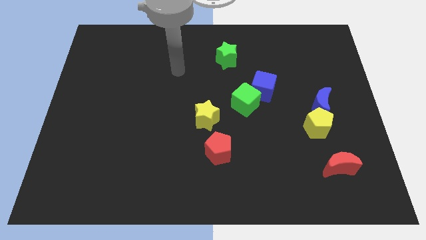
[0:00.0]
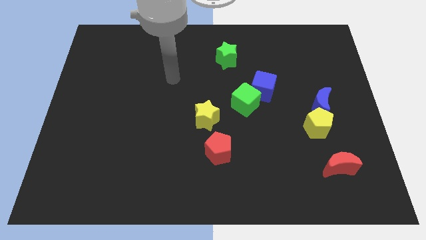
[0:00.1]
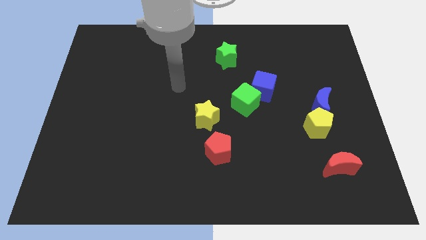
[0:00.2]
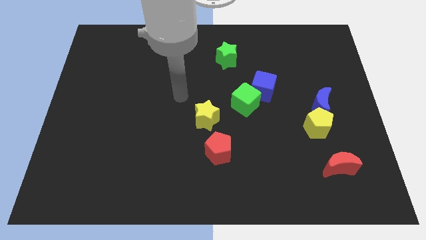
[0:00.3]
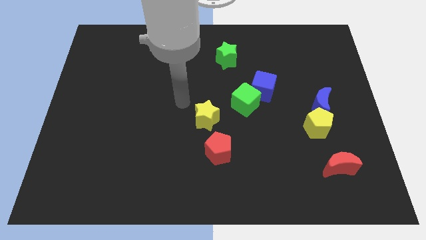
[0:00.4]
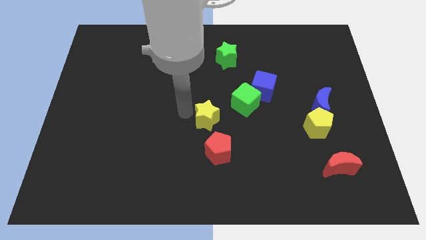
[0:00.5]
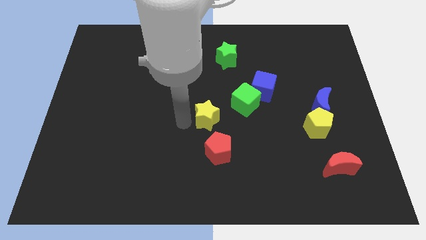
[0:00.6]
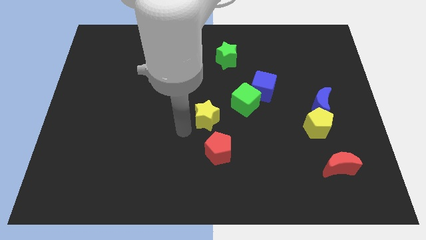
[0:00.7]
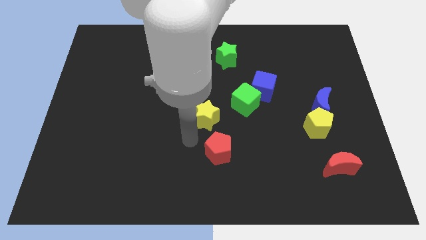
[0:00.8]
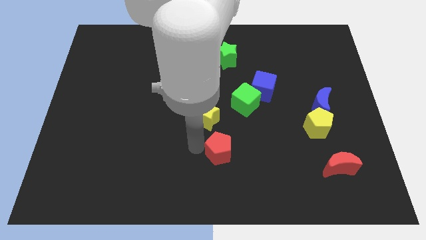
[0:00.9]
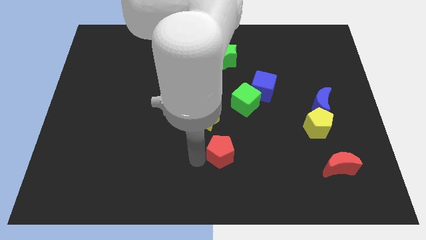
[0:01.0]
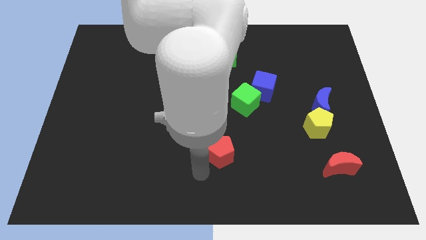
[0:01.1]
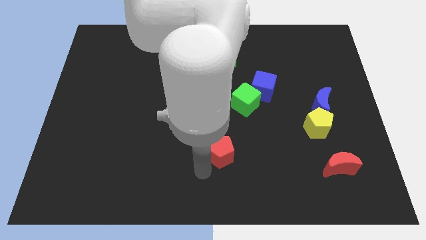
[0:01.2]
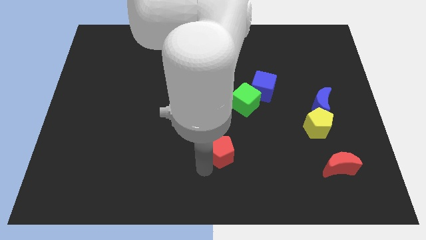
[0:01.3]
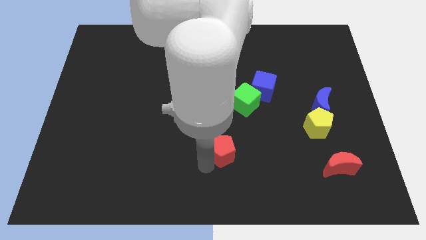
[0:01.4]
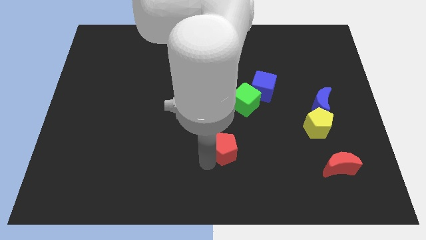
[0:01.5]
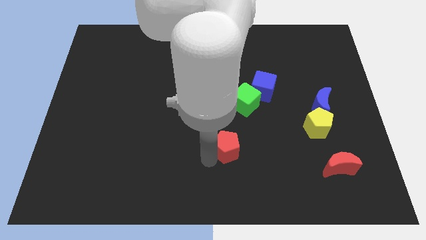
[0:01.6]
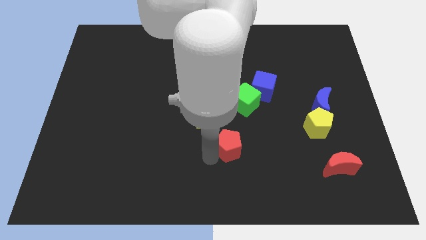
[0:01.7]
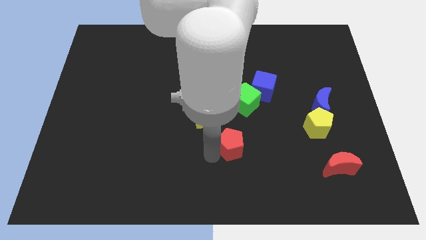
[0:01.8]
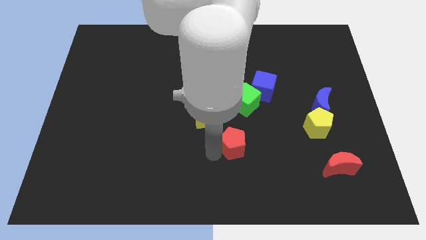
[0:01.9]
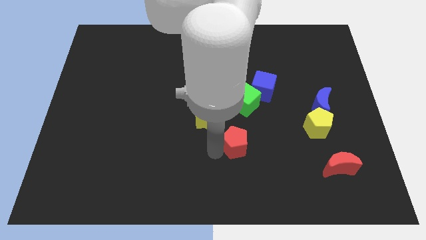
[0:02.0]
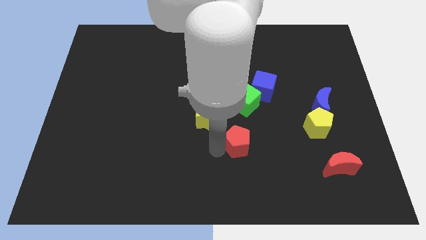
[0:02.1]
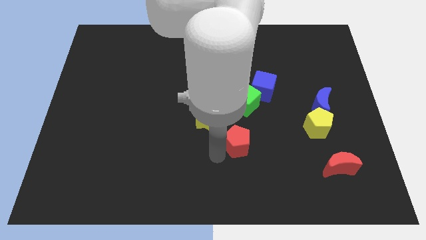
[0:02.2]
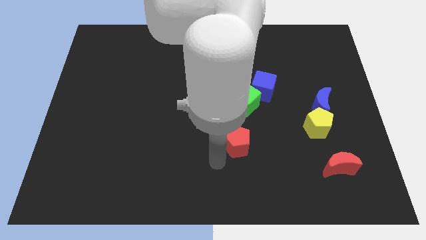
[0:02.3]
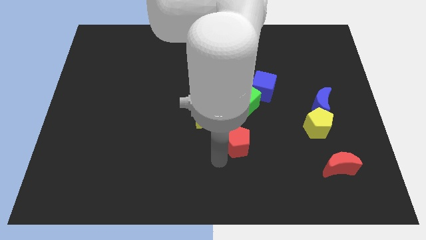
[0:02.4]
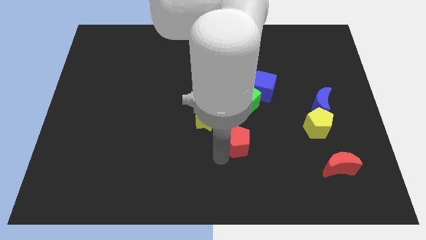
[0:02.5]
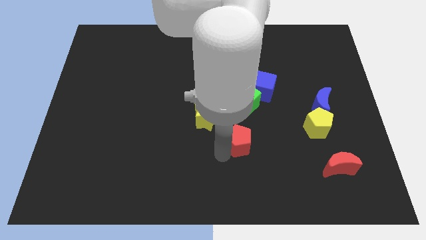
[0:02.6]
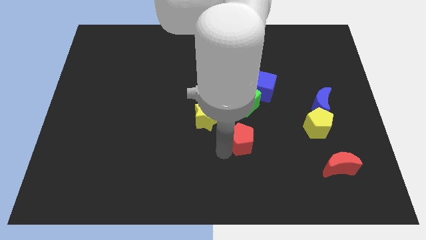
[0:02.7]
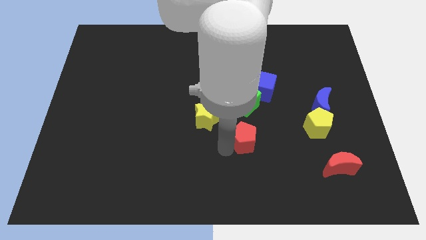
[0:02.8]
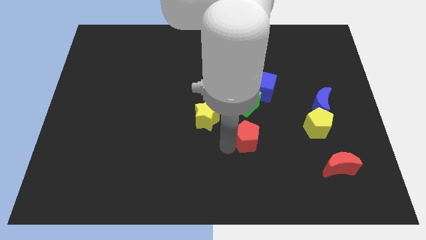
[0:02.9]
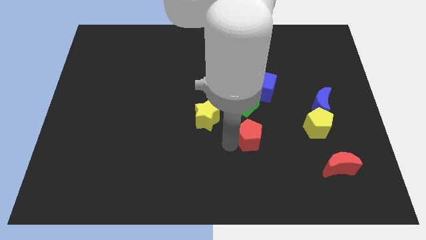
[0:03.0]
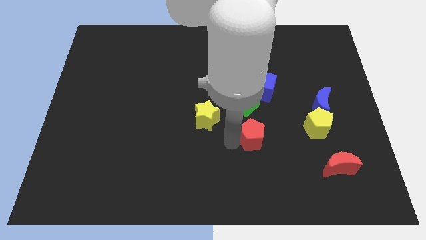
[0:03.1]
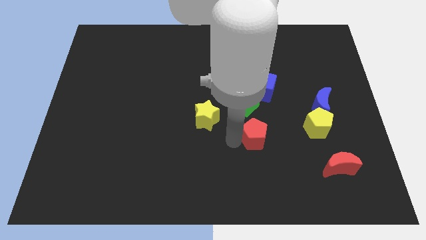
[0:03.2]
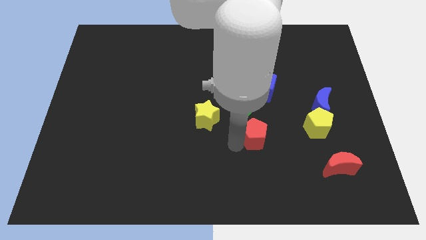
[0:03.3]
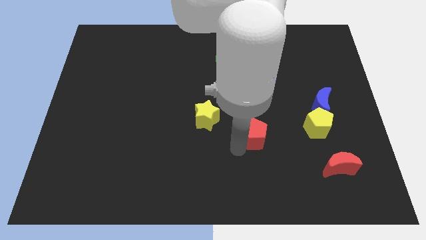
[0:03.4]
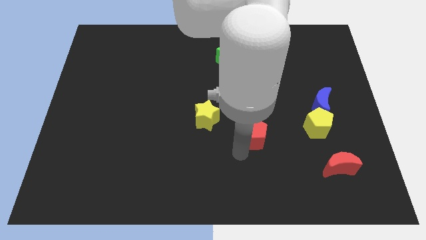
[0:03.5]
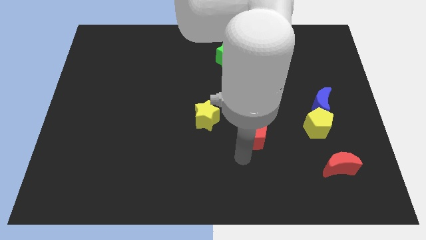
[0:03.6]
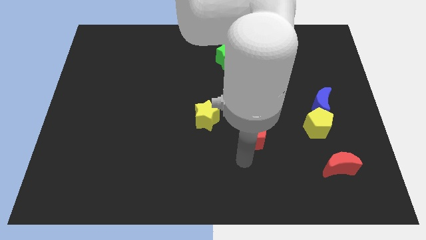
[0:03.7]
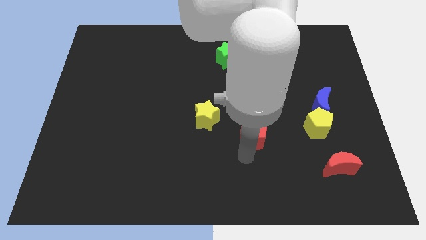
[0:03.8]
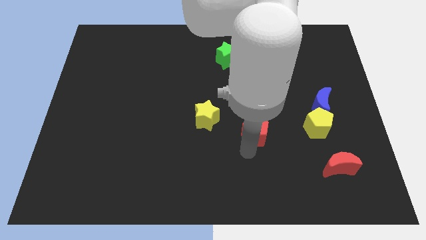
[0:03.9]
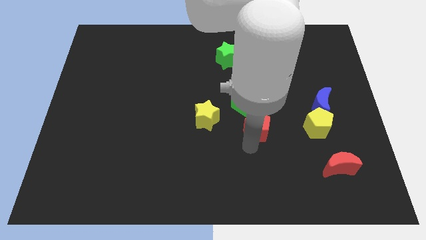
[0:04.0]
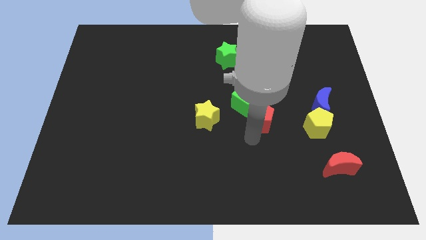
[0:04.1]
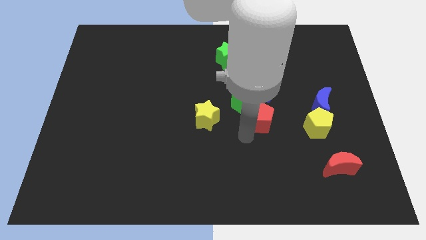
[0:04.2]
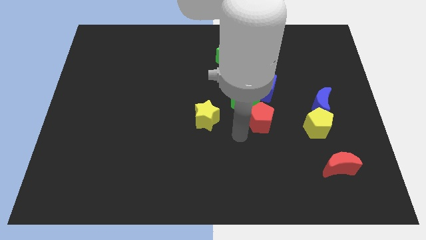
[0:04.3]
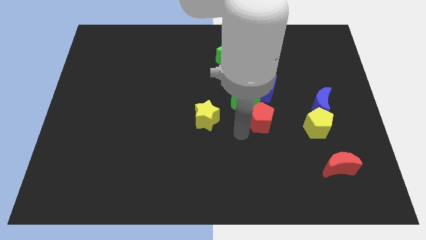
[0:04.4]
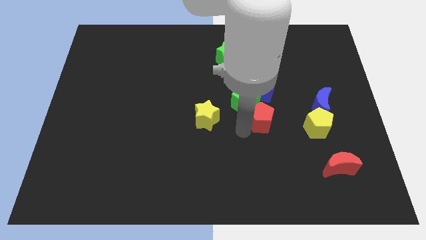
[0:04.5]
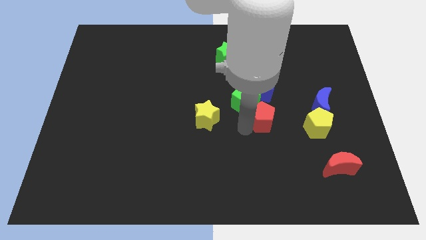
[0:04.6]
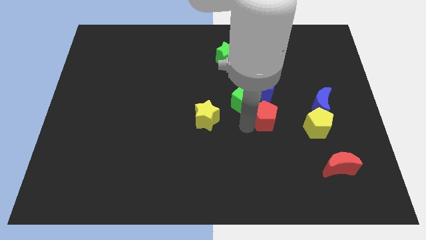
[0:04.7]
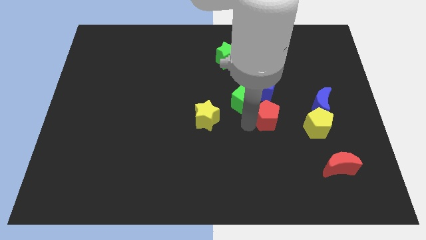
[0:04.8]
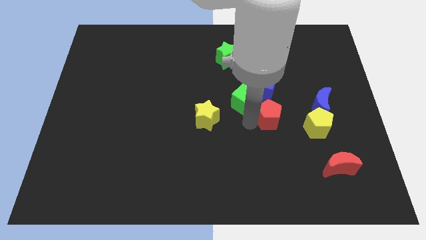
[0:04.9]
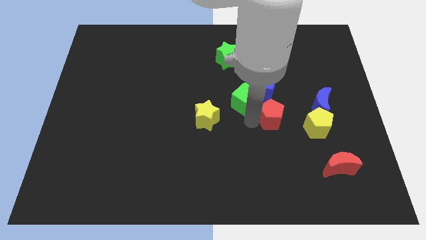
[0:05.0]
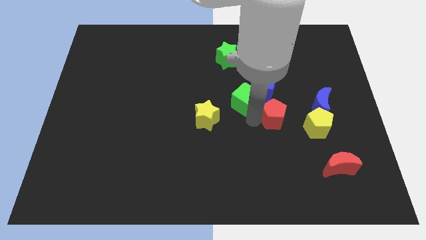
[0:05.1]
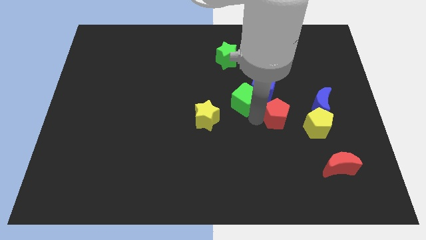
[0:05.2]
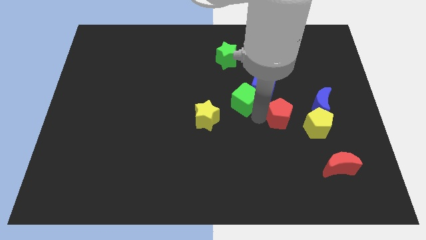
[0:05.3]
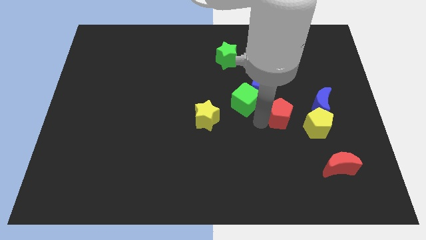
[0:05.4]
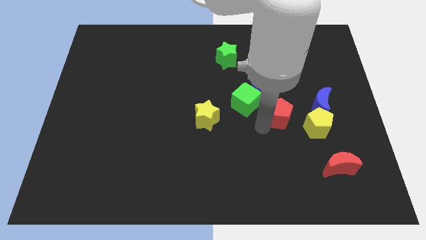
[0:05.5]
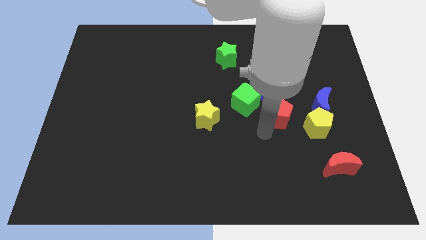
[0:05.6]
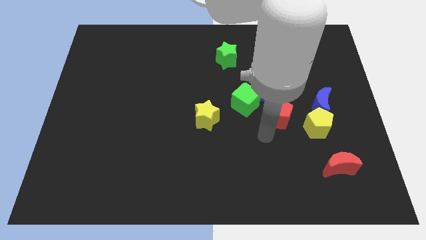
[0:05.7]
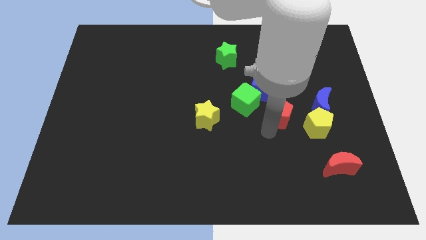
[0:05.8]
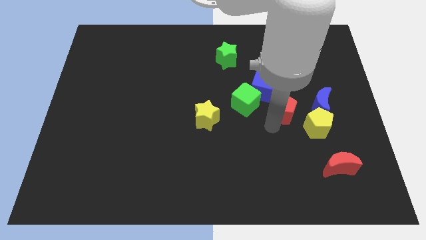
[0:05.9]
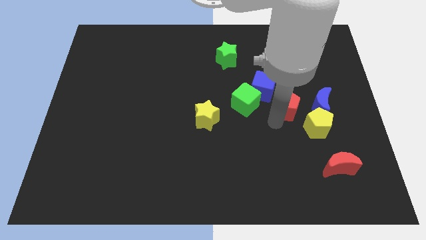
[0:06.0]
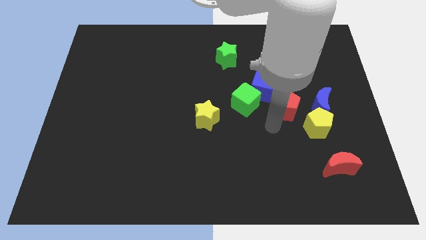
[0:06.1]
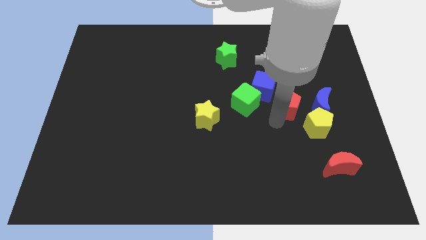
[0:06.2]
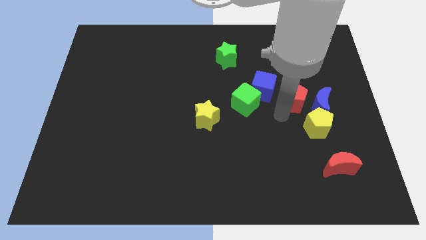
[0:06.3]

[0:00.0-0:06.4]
move the red pentagon up and then to the right

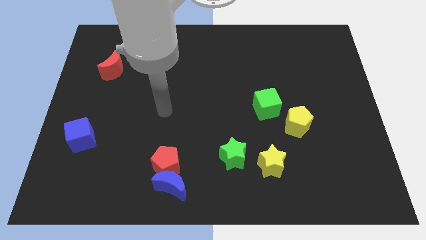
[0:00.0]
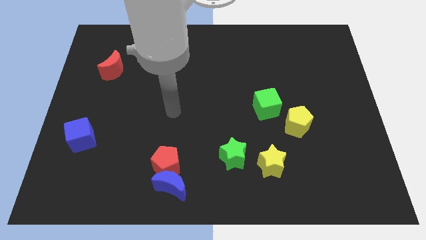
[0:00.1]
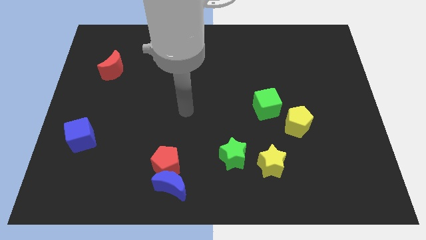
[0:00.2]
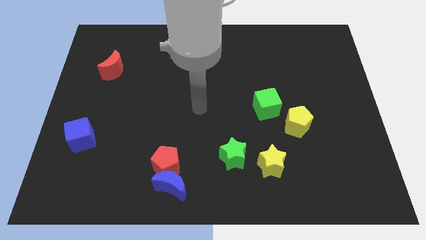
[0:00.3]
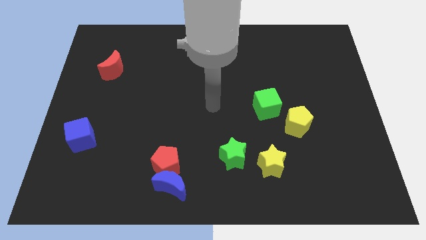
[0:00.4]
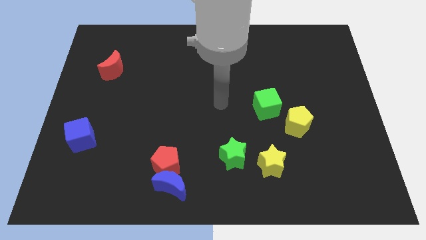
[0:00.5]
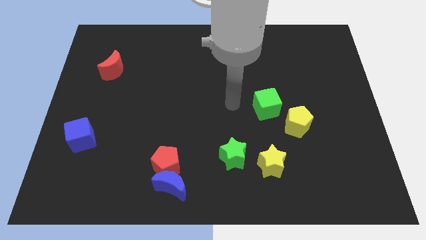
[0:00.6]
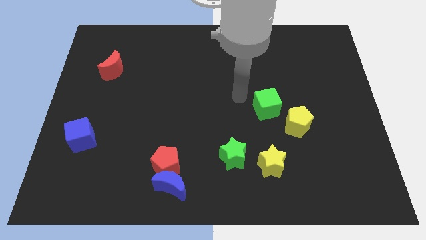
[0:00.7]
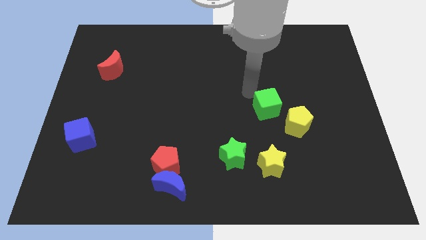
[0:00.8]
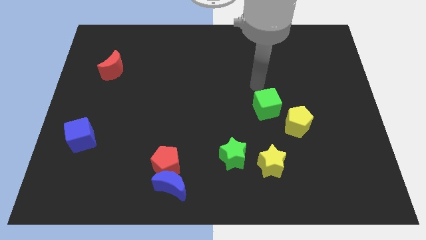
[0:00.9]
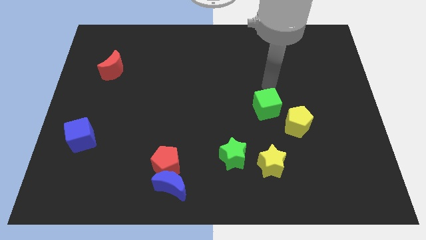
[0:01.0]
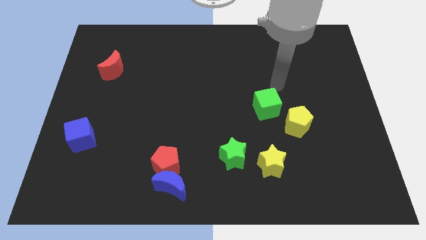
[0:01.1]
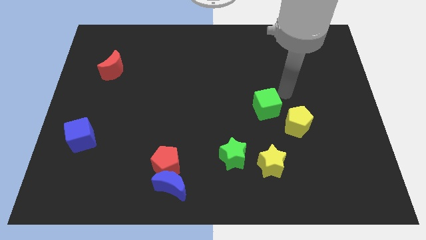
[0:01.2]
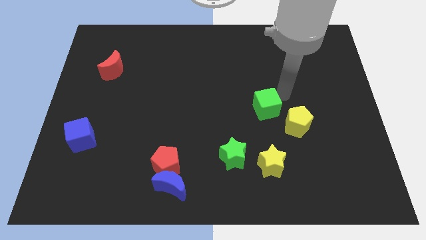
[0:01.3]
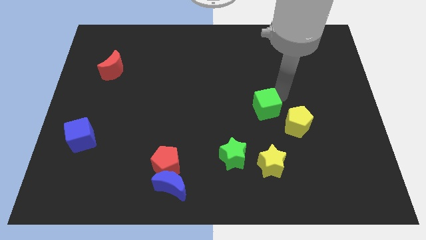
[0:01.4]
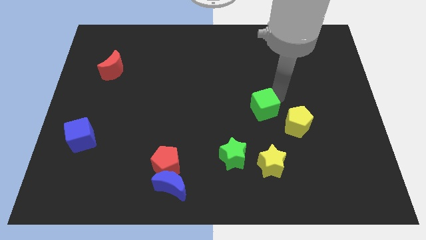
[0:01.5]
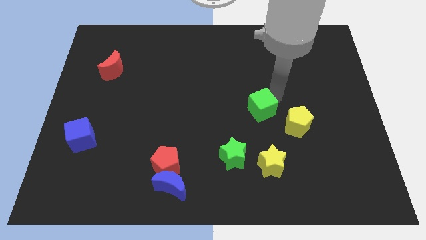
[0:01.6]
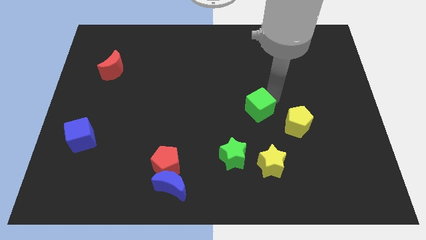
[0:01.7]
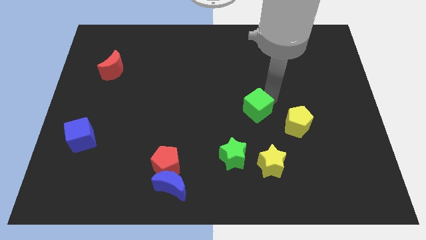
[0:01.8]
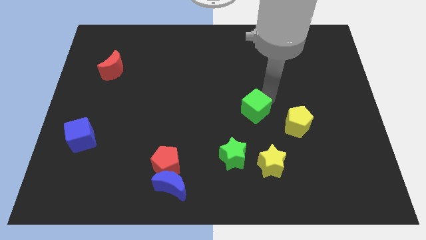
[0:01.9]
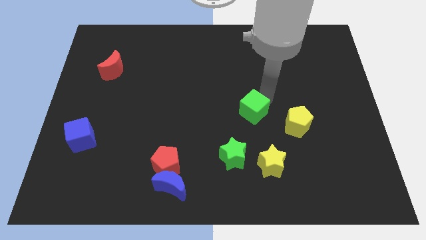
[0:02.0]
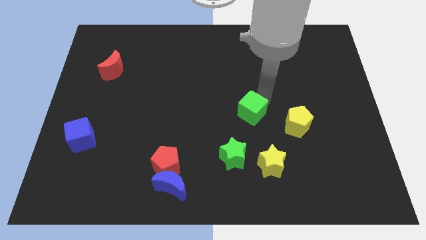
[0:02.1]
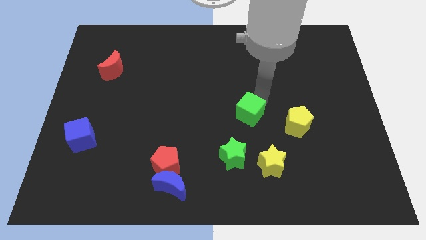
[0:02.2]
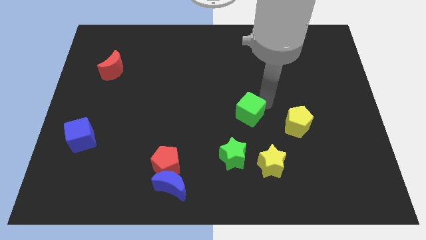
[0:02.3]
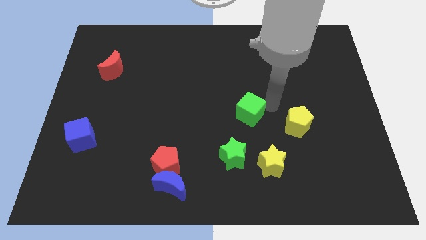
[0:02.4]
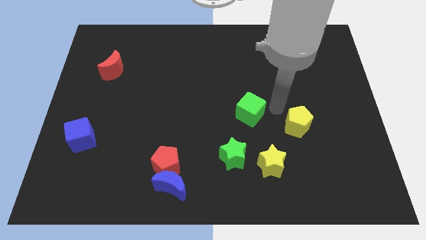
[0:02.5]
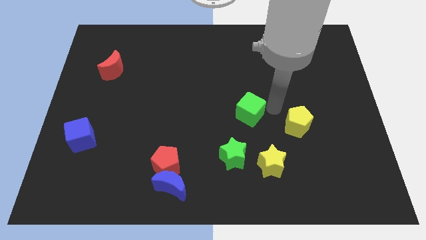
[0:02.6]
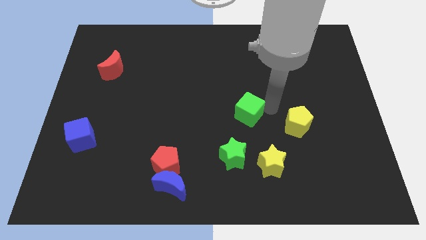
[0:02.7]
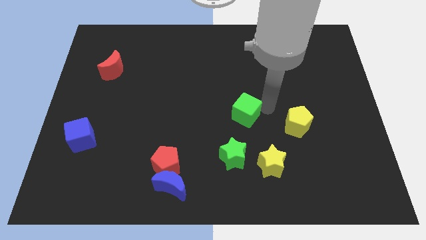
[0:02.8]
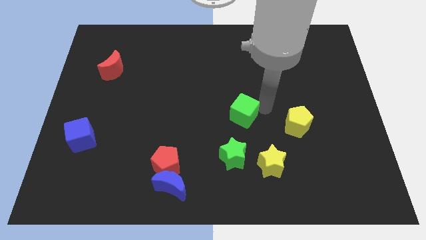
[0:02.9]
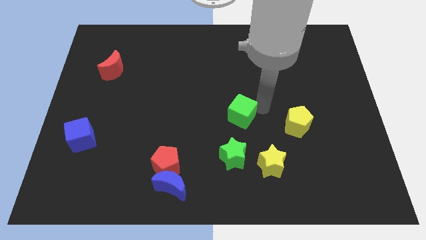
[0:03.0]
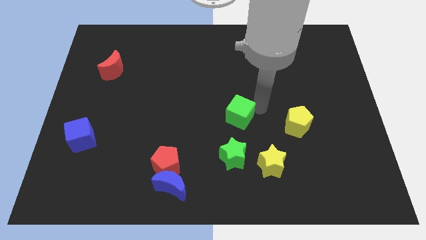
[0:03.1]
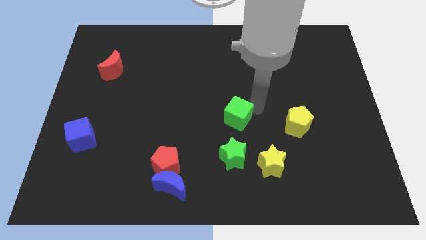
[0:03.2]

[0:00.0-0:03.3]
push the green cube to the left a little bit
